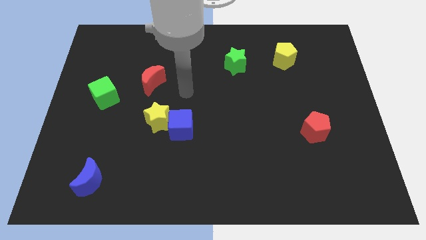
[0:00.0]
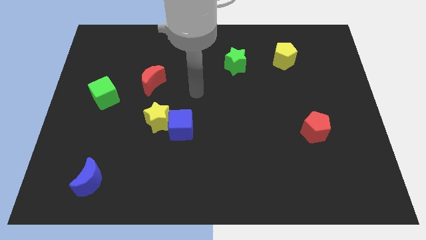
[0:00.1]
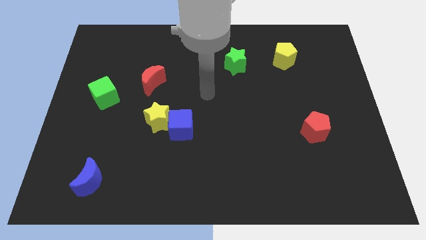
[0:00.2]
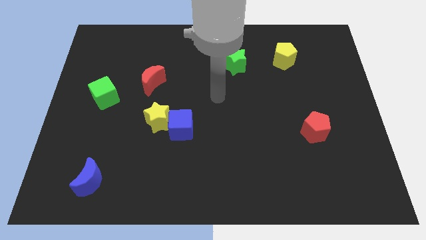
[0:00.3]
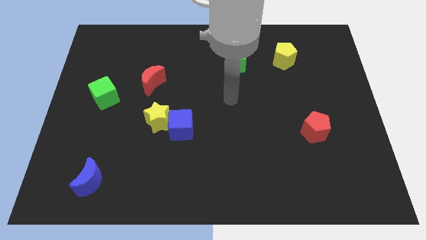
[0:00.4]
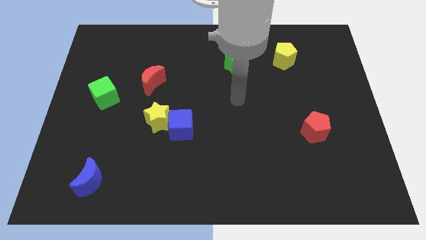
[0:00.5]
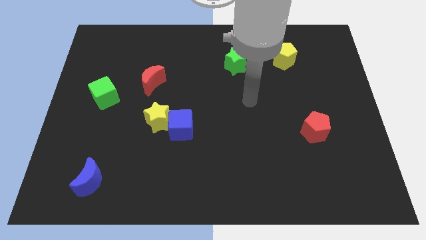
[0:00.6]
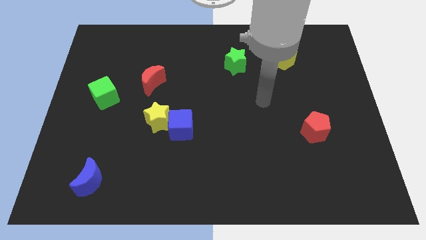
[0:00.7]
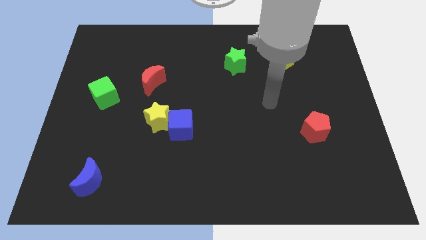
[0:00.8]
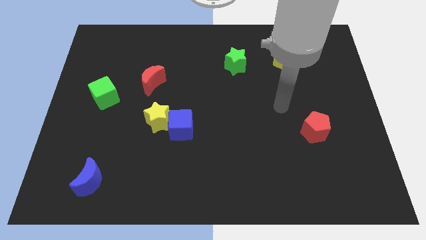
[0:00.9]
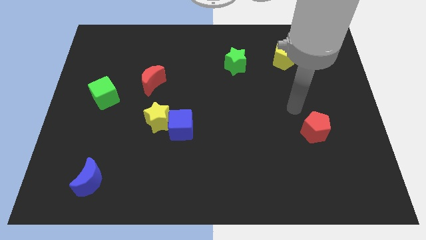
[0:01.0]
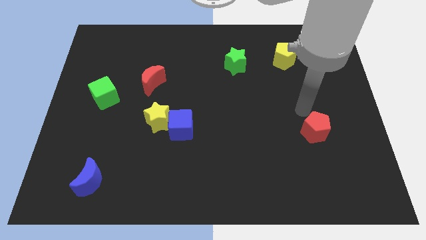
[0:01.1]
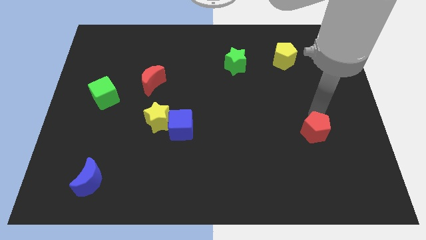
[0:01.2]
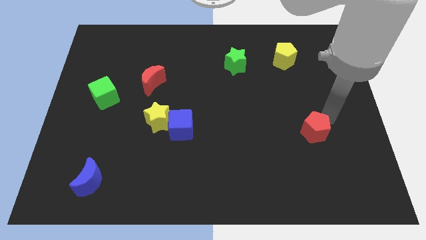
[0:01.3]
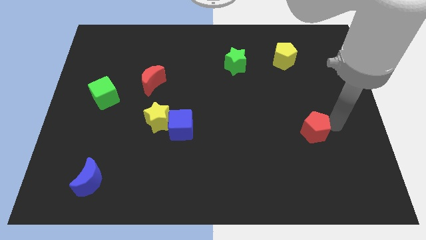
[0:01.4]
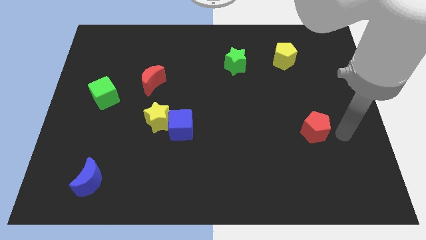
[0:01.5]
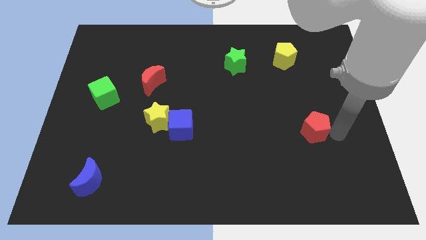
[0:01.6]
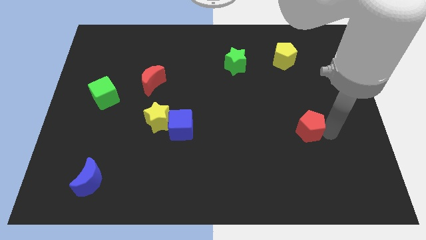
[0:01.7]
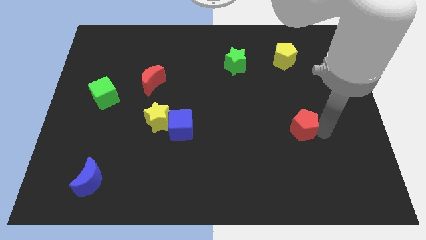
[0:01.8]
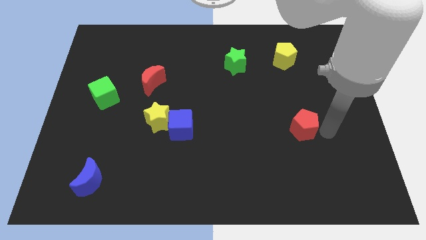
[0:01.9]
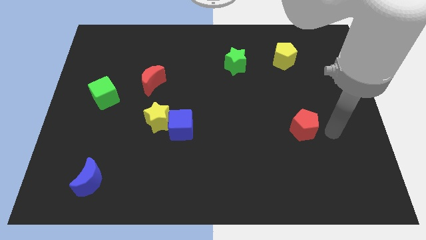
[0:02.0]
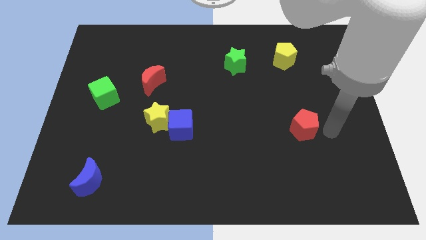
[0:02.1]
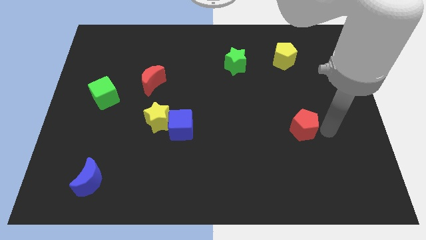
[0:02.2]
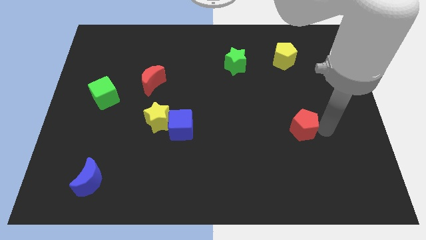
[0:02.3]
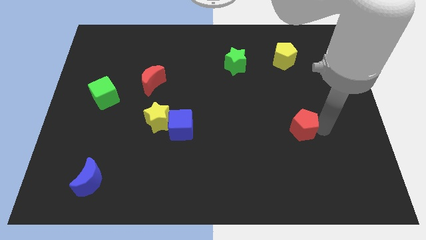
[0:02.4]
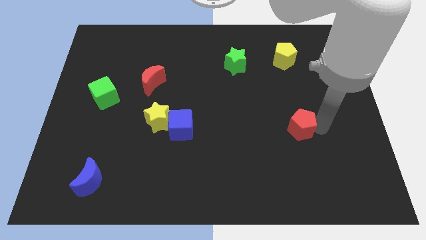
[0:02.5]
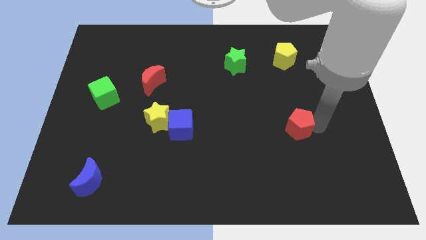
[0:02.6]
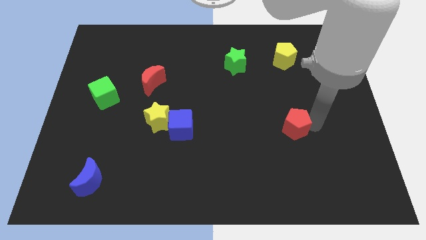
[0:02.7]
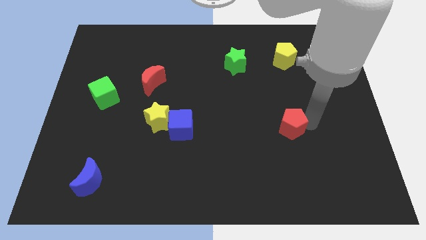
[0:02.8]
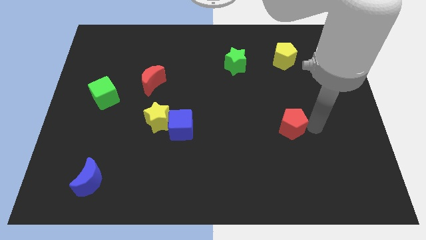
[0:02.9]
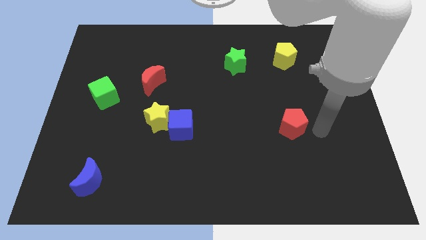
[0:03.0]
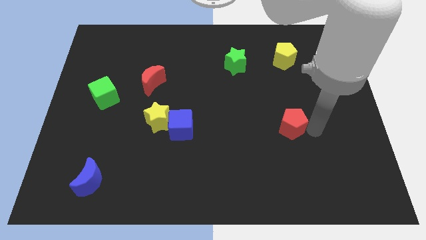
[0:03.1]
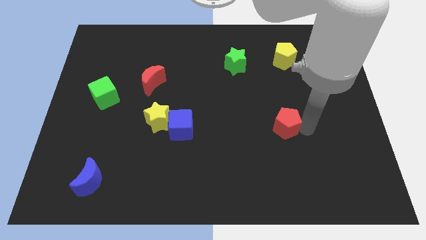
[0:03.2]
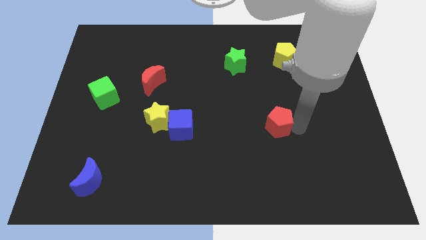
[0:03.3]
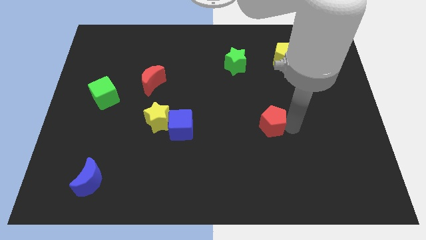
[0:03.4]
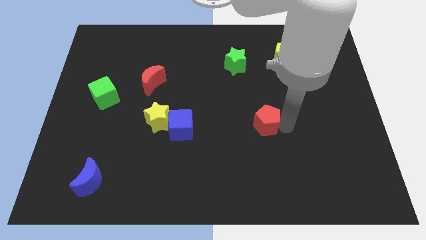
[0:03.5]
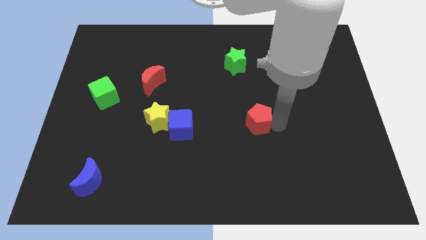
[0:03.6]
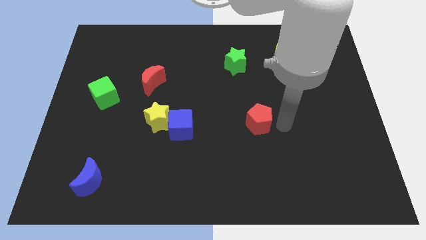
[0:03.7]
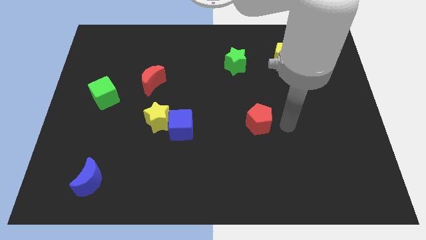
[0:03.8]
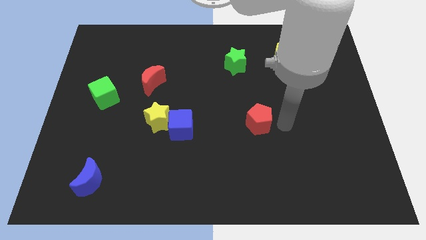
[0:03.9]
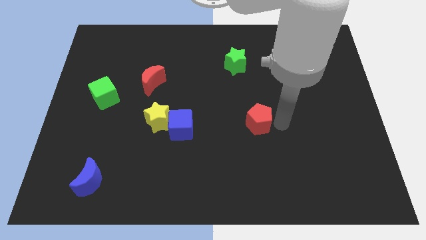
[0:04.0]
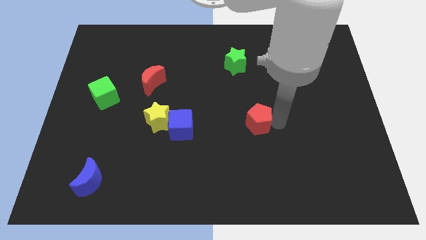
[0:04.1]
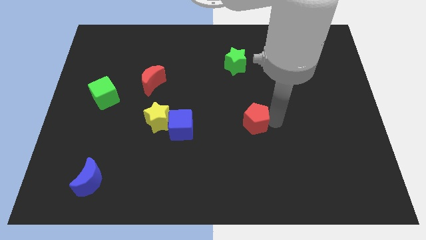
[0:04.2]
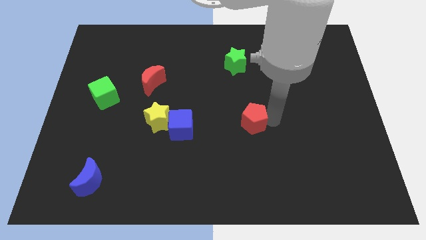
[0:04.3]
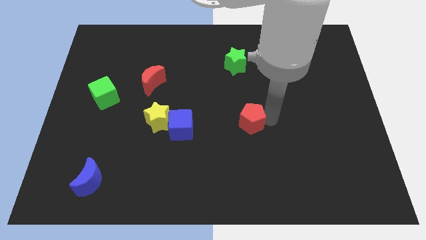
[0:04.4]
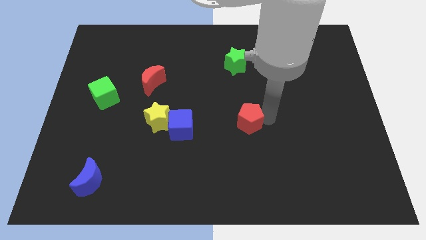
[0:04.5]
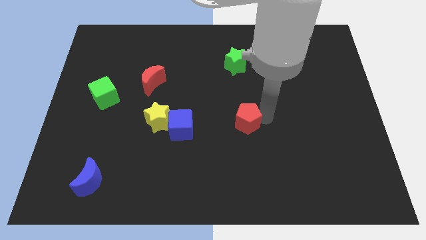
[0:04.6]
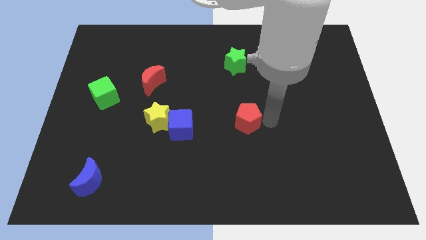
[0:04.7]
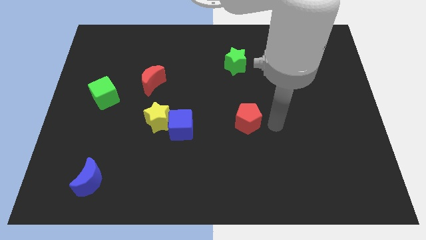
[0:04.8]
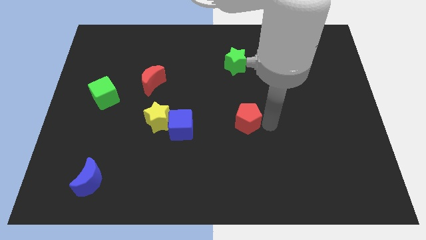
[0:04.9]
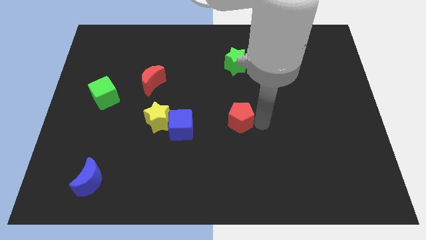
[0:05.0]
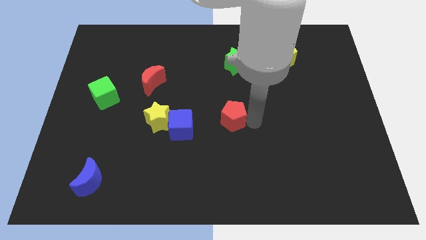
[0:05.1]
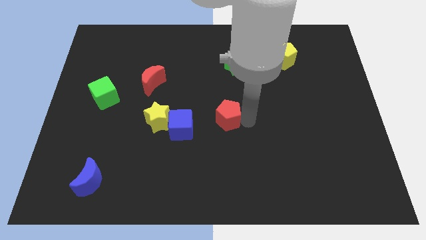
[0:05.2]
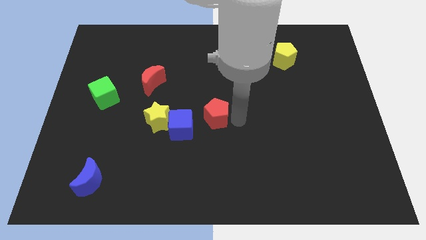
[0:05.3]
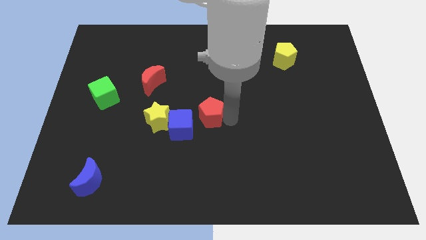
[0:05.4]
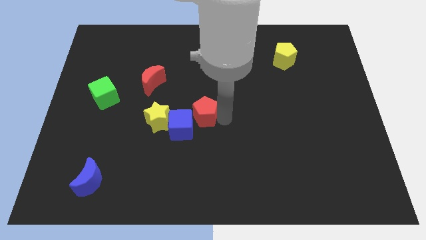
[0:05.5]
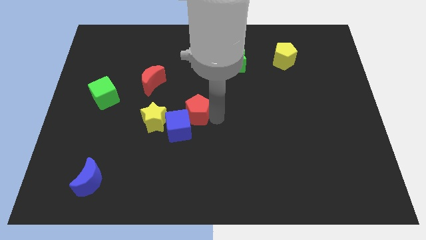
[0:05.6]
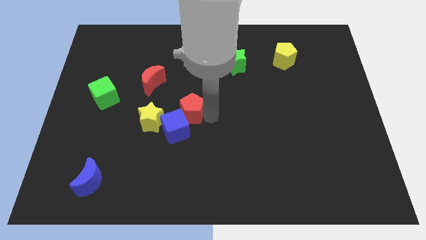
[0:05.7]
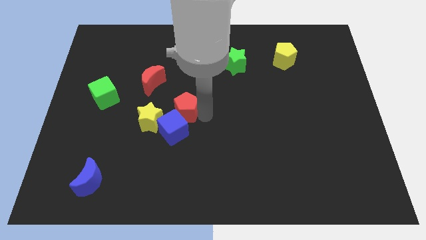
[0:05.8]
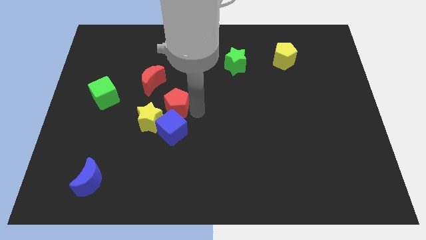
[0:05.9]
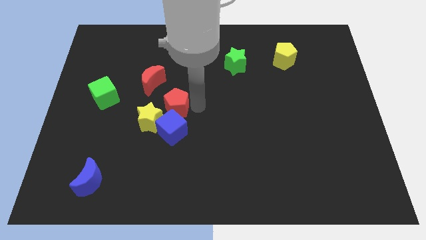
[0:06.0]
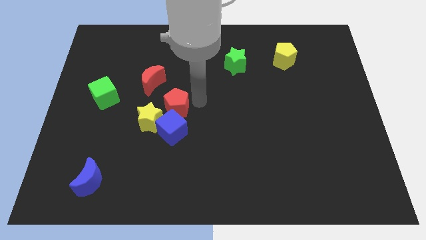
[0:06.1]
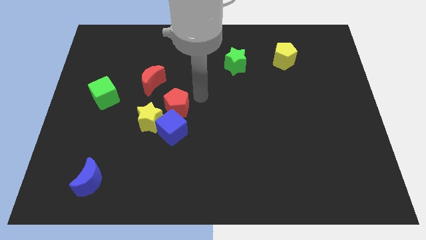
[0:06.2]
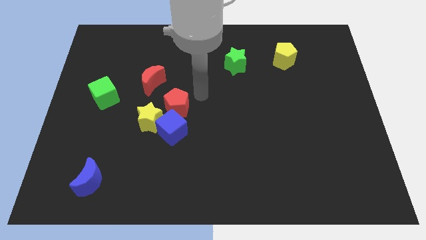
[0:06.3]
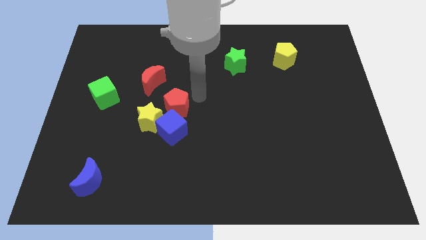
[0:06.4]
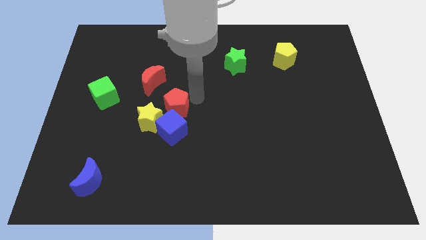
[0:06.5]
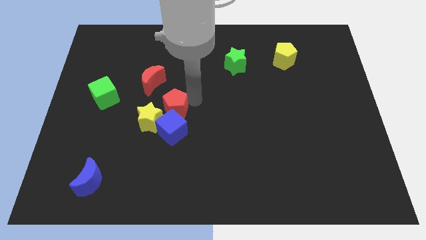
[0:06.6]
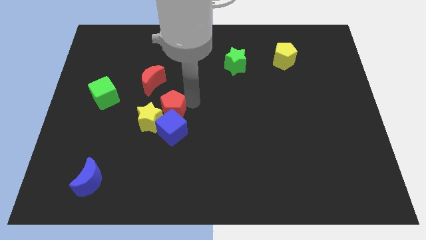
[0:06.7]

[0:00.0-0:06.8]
slide the red pentagon to the yellow star

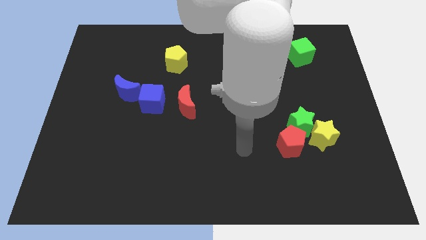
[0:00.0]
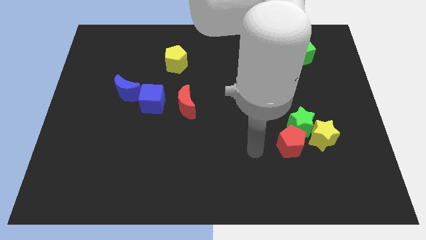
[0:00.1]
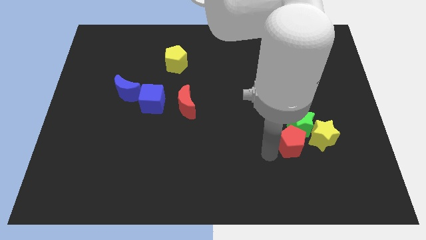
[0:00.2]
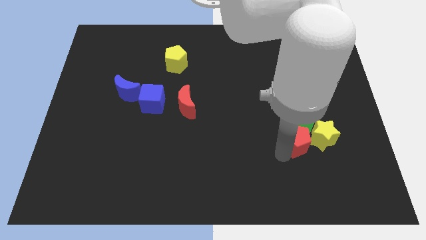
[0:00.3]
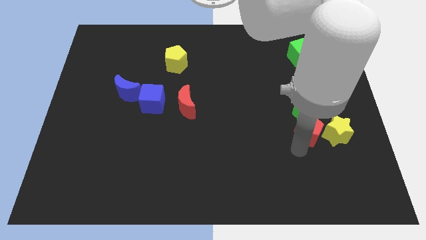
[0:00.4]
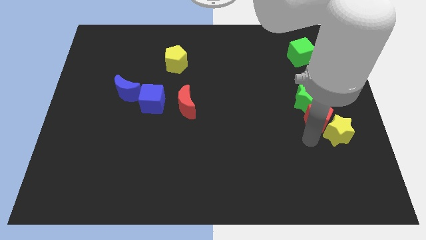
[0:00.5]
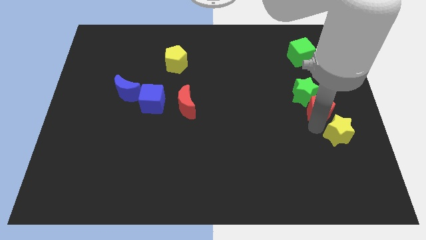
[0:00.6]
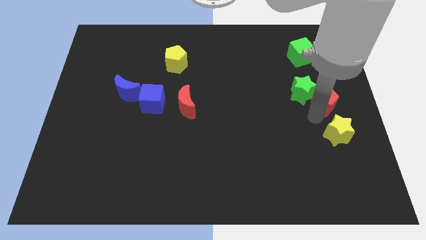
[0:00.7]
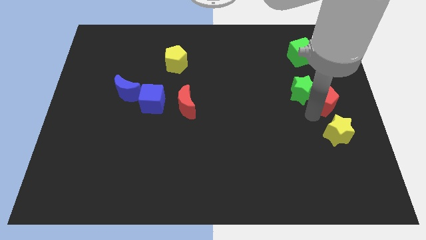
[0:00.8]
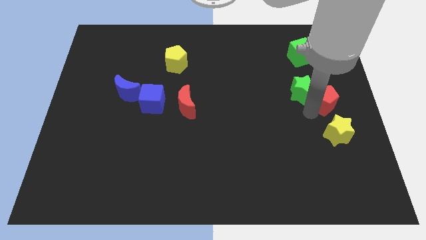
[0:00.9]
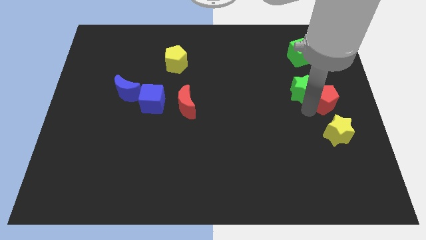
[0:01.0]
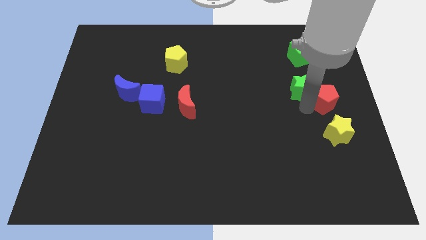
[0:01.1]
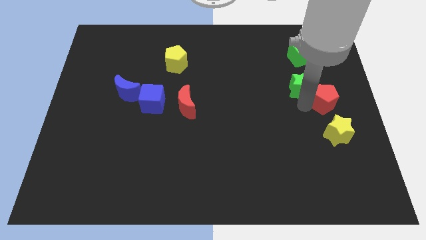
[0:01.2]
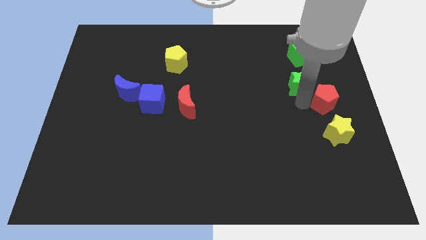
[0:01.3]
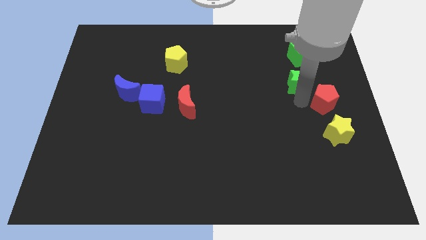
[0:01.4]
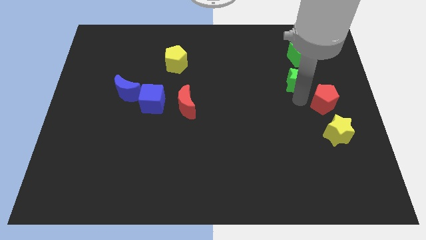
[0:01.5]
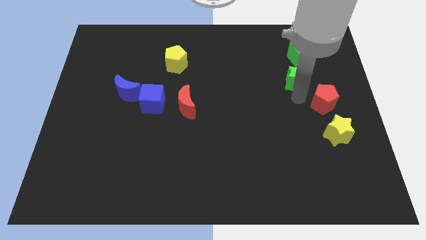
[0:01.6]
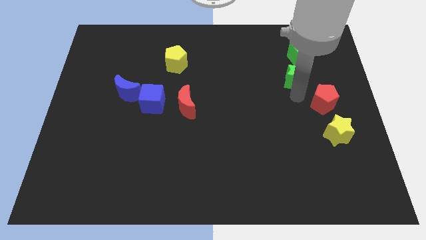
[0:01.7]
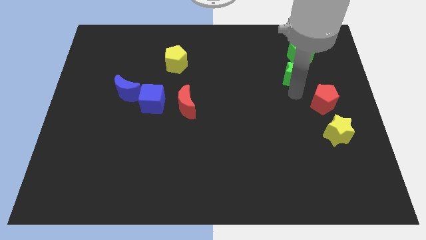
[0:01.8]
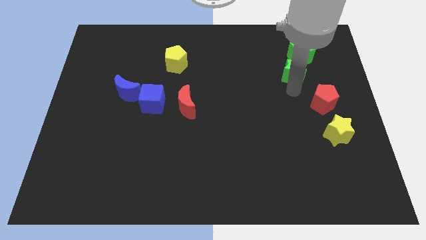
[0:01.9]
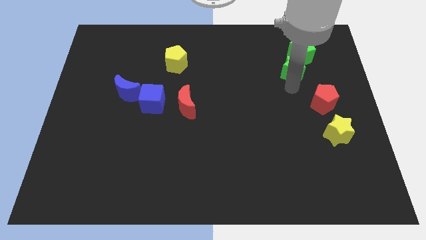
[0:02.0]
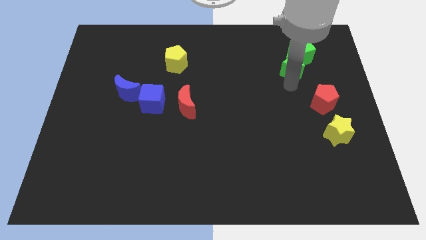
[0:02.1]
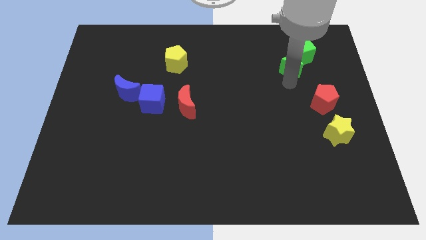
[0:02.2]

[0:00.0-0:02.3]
slide the green star towards the green cube
